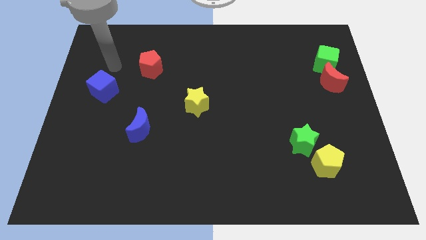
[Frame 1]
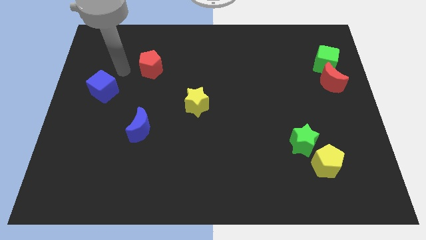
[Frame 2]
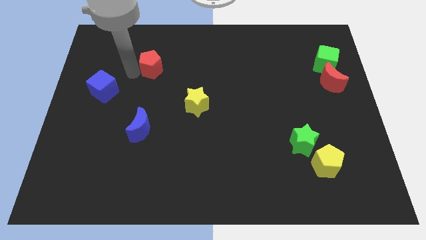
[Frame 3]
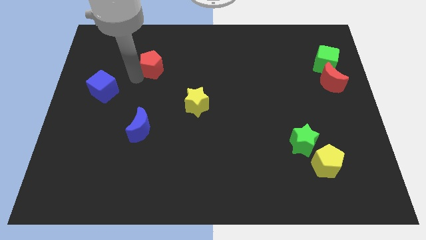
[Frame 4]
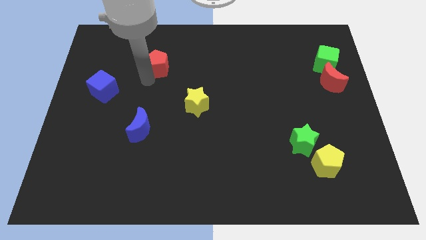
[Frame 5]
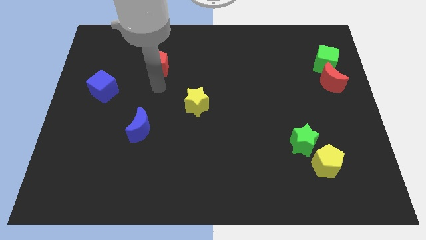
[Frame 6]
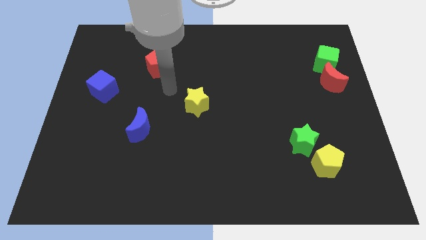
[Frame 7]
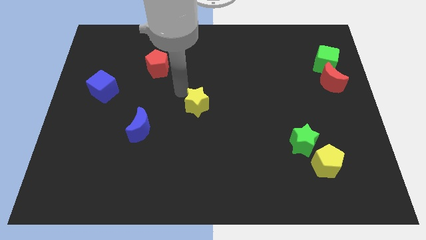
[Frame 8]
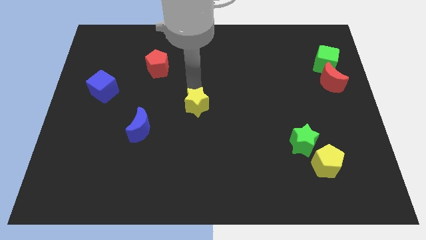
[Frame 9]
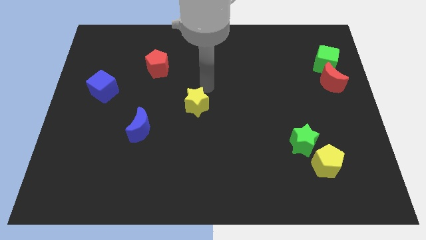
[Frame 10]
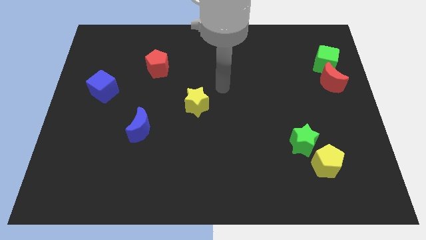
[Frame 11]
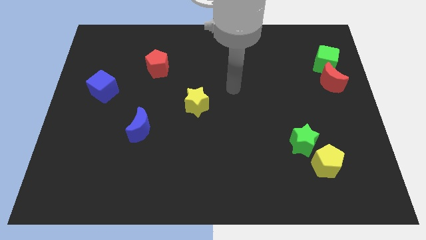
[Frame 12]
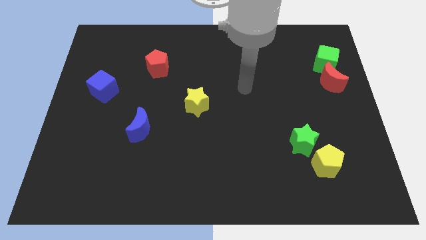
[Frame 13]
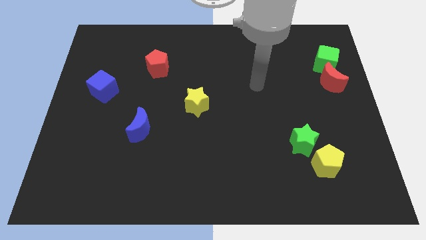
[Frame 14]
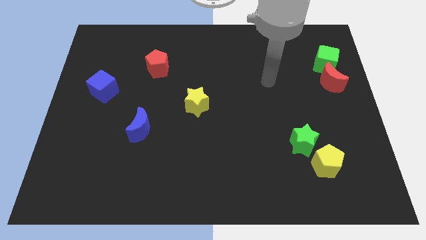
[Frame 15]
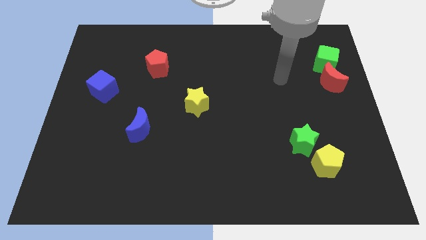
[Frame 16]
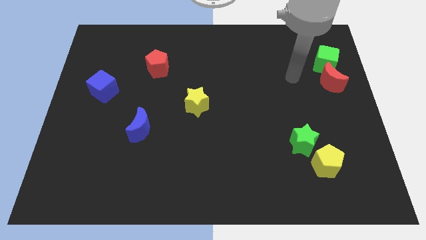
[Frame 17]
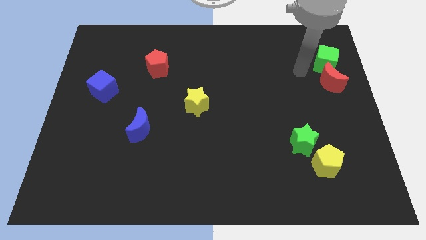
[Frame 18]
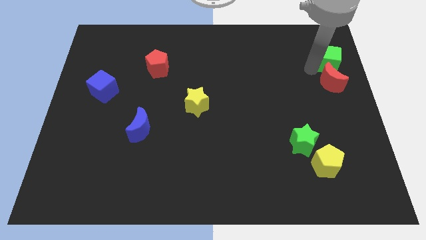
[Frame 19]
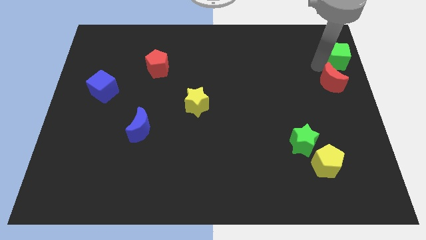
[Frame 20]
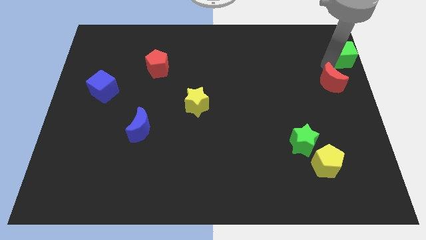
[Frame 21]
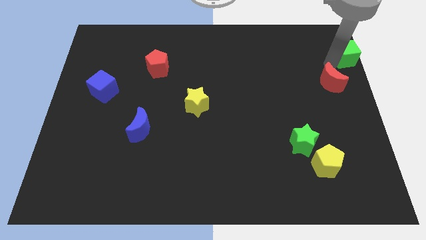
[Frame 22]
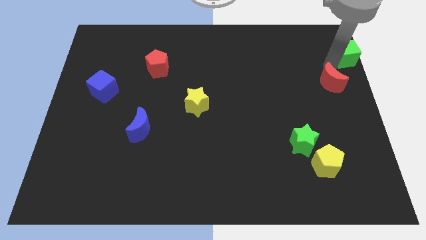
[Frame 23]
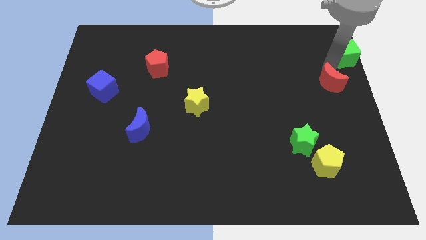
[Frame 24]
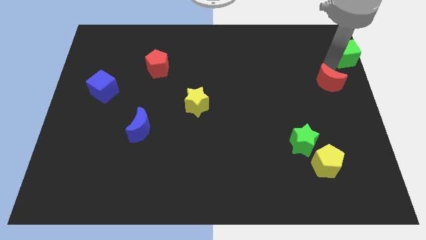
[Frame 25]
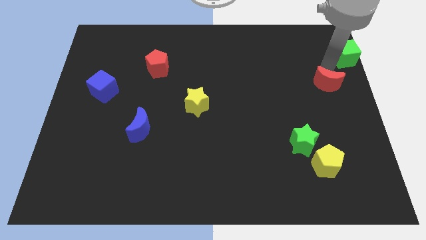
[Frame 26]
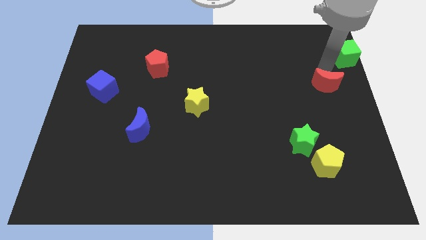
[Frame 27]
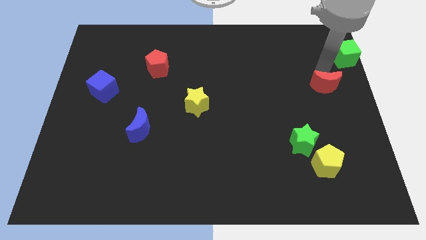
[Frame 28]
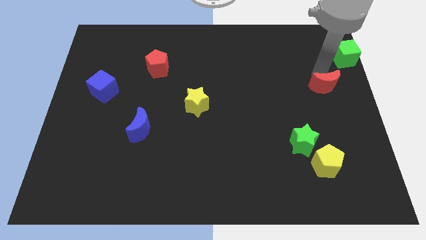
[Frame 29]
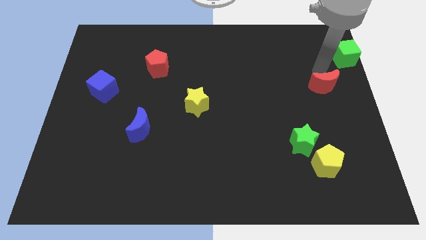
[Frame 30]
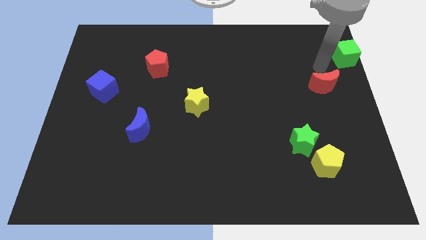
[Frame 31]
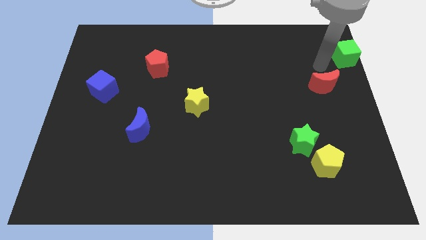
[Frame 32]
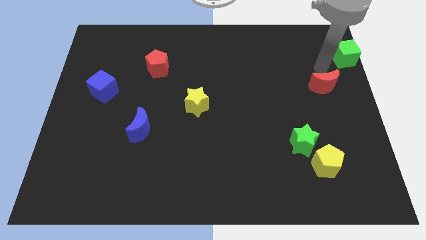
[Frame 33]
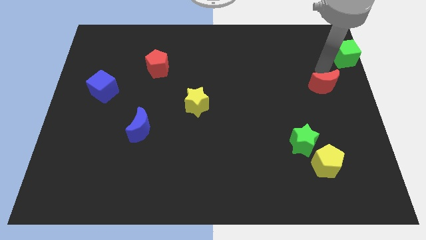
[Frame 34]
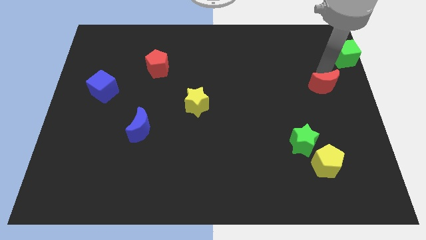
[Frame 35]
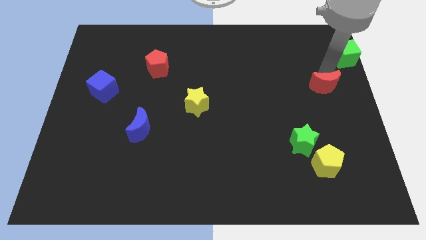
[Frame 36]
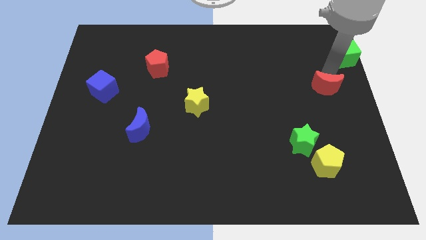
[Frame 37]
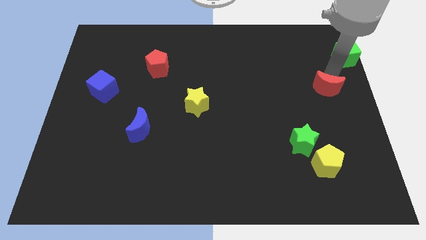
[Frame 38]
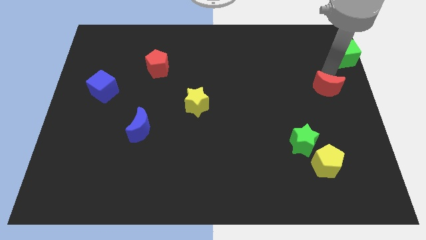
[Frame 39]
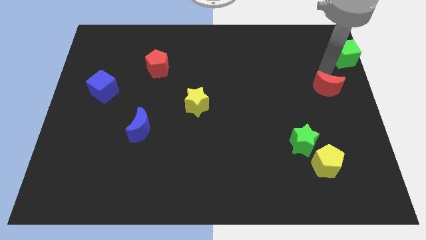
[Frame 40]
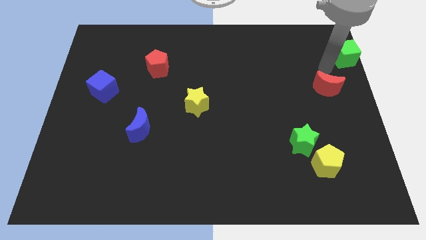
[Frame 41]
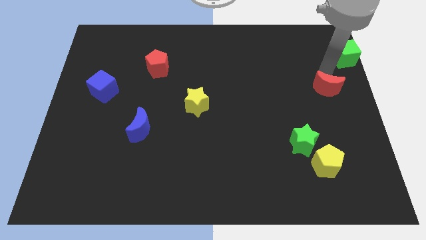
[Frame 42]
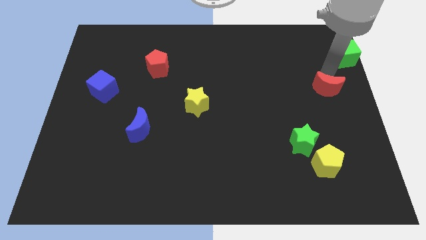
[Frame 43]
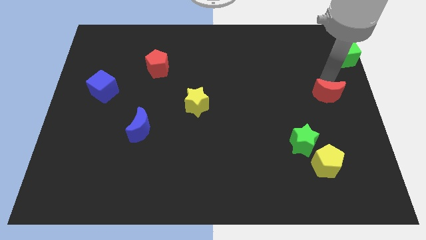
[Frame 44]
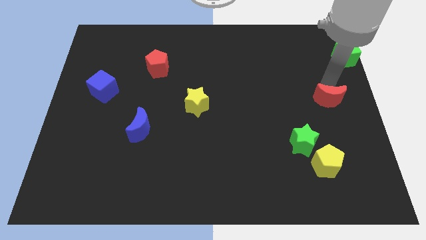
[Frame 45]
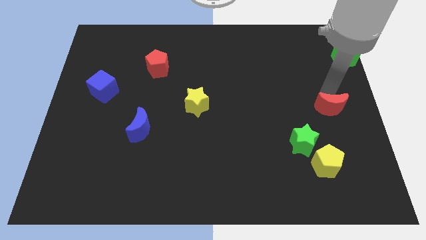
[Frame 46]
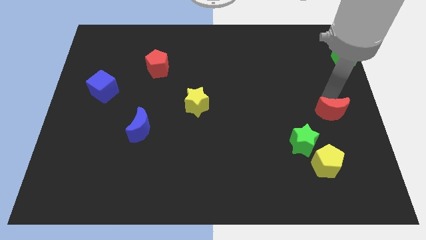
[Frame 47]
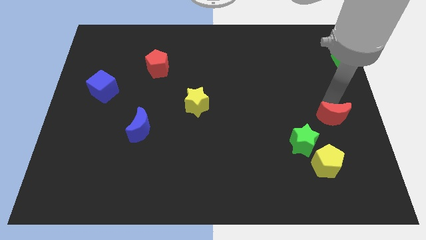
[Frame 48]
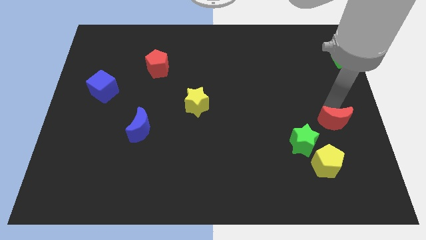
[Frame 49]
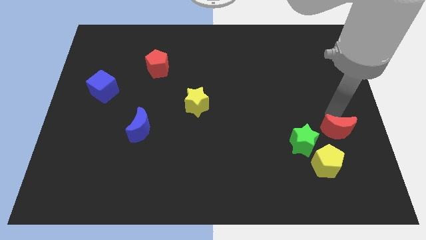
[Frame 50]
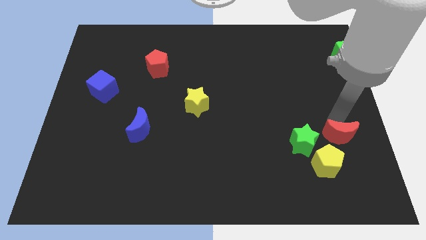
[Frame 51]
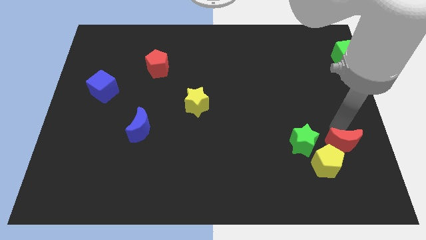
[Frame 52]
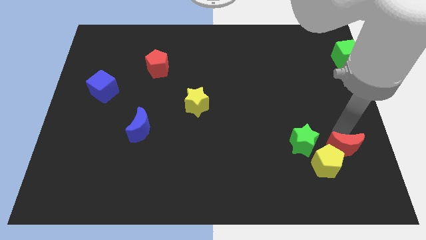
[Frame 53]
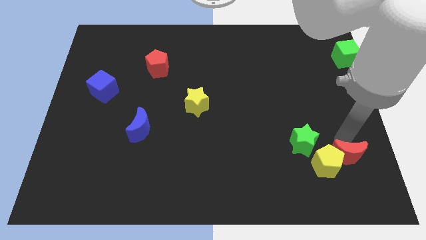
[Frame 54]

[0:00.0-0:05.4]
slide the red moon to the bottom right of the green star

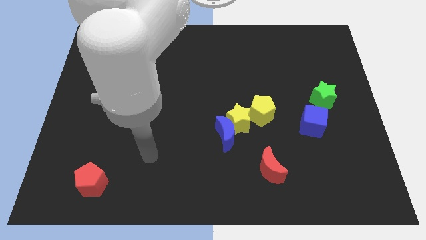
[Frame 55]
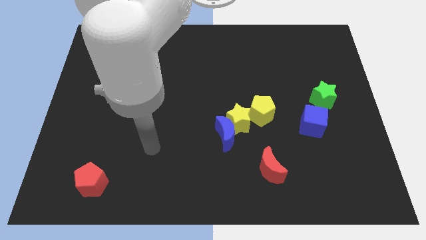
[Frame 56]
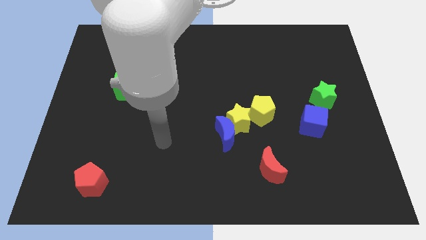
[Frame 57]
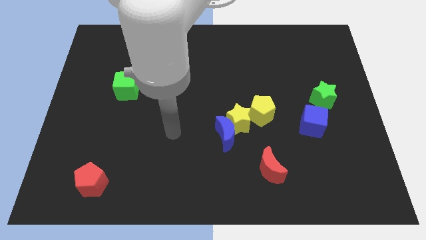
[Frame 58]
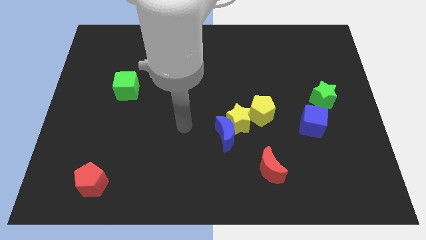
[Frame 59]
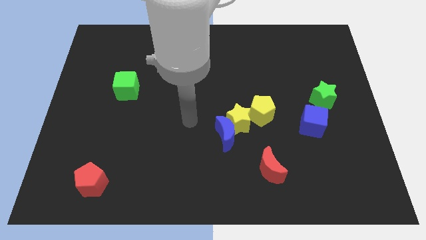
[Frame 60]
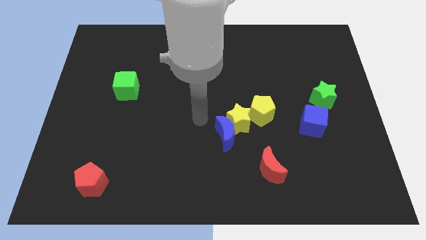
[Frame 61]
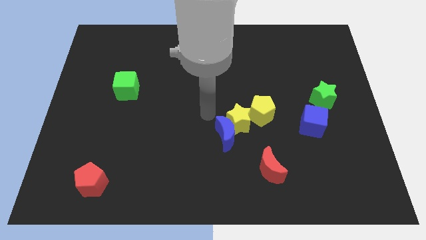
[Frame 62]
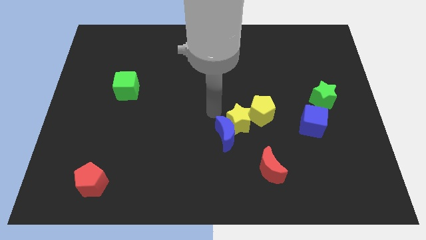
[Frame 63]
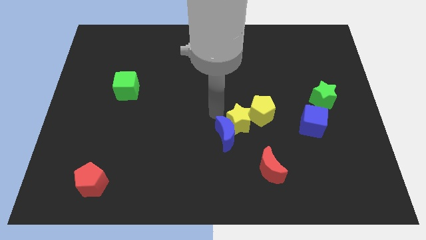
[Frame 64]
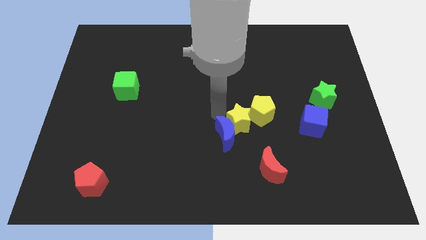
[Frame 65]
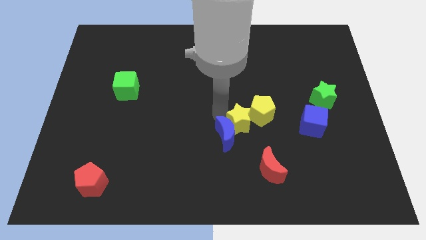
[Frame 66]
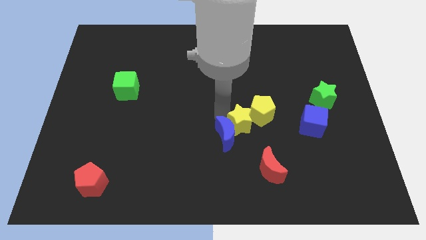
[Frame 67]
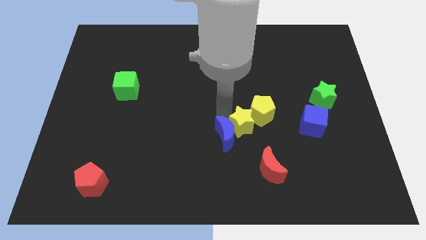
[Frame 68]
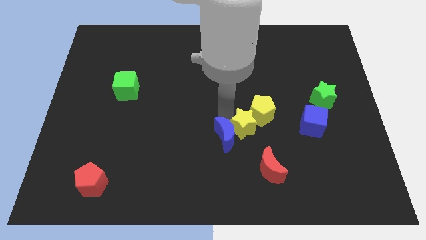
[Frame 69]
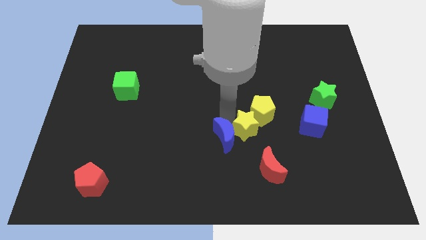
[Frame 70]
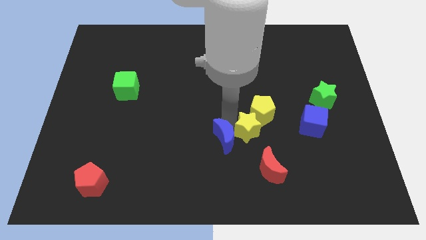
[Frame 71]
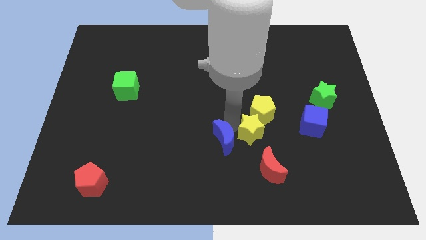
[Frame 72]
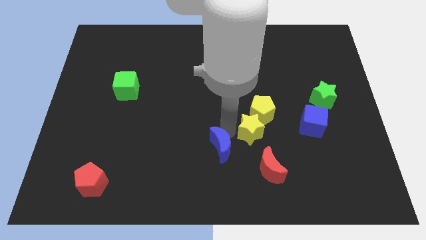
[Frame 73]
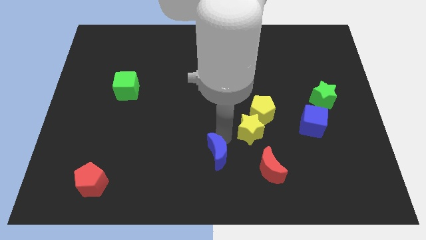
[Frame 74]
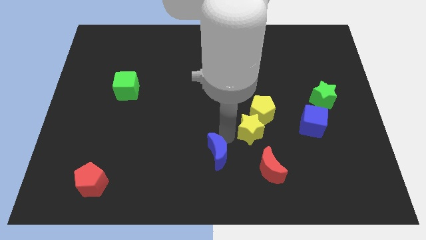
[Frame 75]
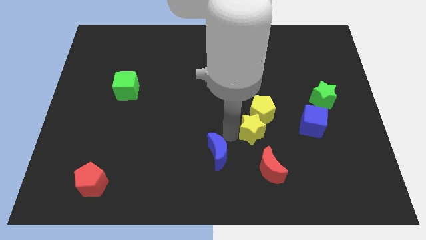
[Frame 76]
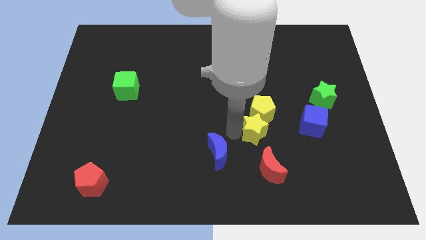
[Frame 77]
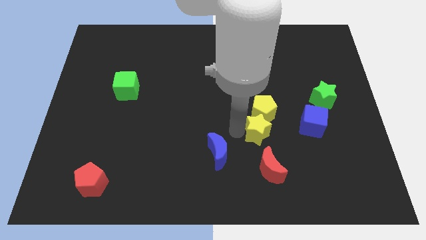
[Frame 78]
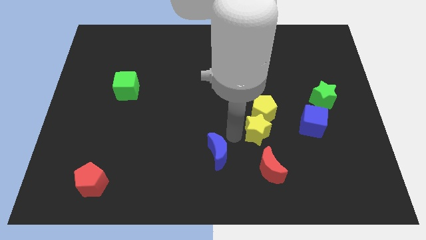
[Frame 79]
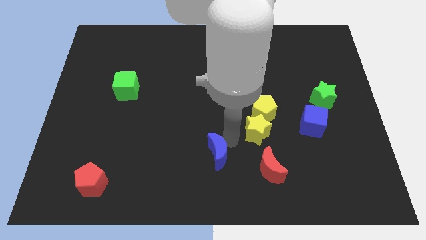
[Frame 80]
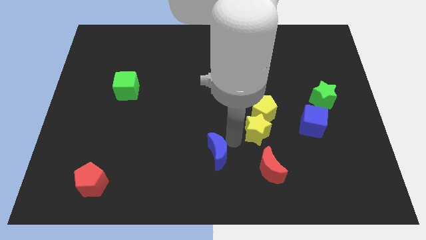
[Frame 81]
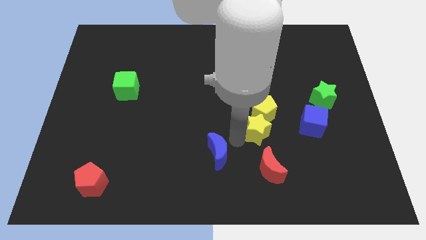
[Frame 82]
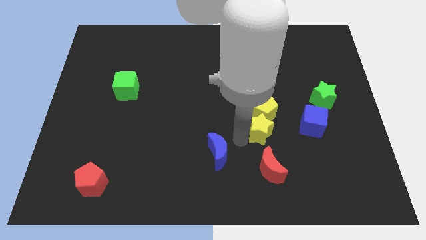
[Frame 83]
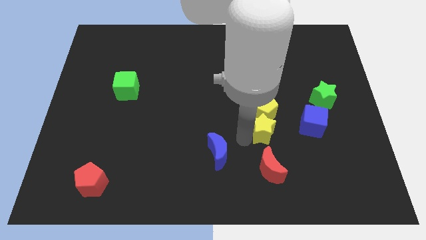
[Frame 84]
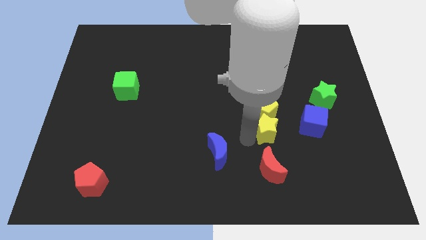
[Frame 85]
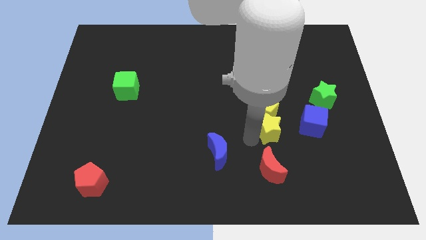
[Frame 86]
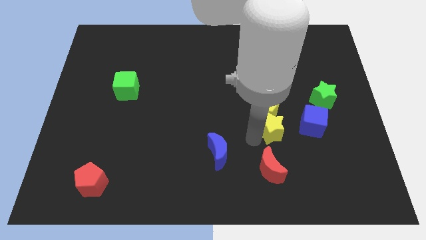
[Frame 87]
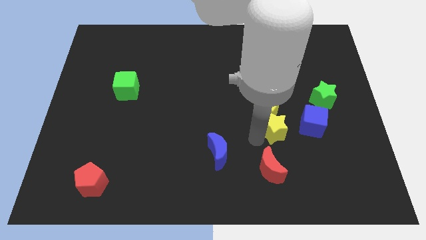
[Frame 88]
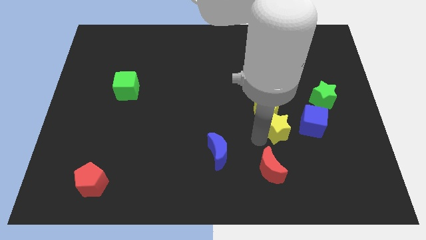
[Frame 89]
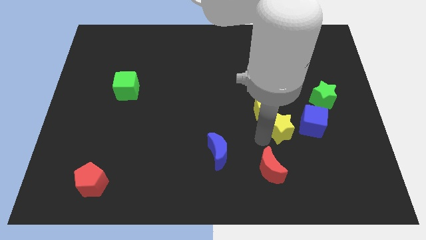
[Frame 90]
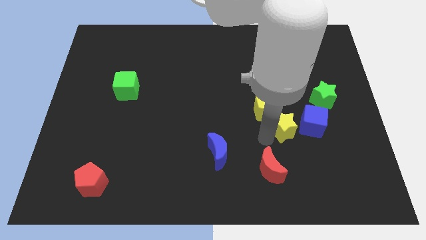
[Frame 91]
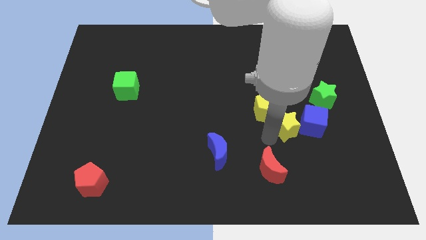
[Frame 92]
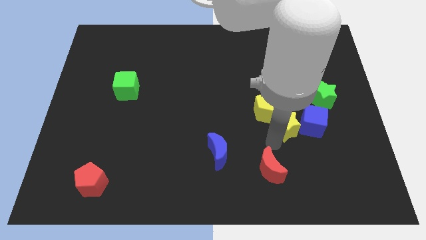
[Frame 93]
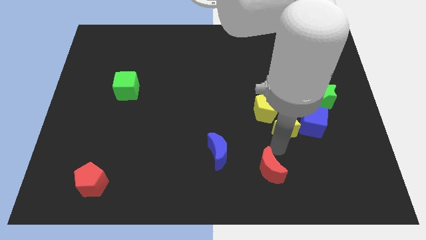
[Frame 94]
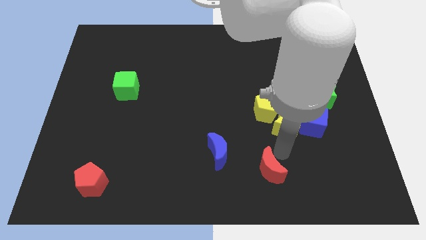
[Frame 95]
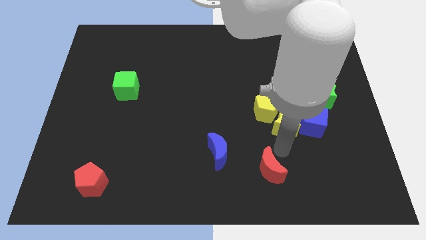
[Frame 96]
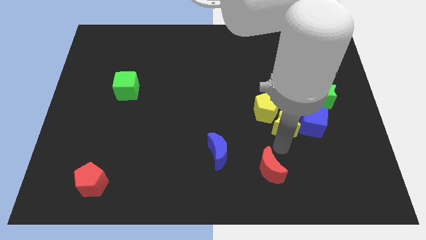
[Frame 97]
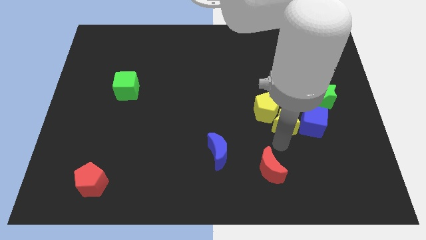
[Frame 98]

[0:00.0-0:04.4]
slide the yellow star to the top left of the blue cube
